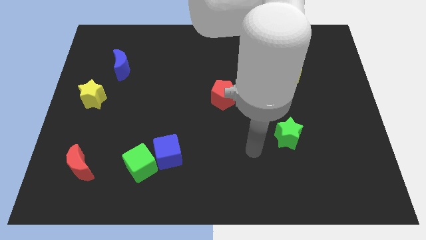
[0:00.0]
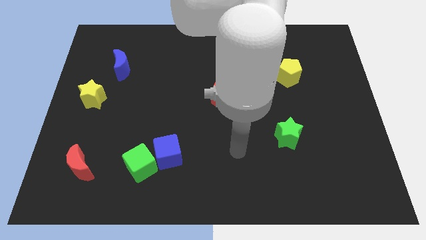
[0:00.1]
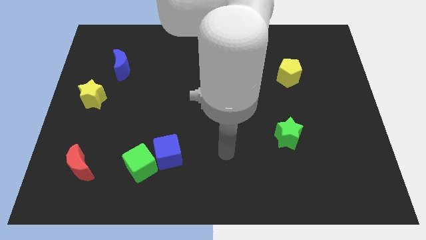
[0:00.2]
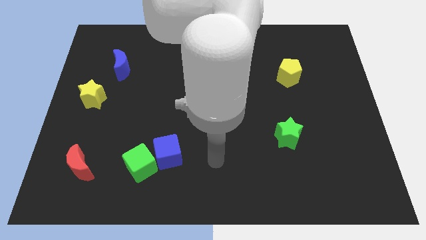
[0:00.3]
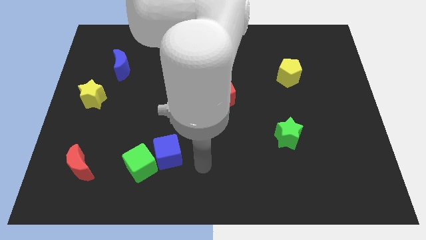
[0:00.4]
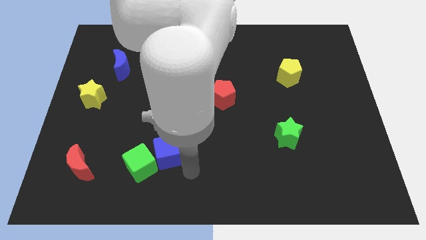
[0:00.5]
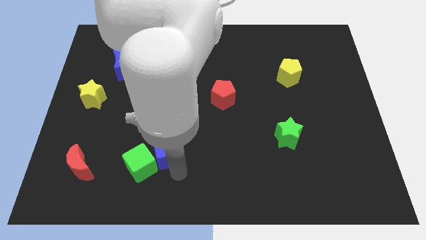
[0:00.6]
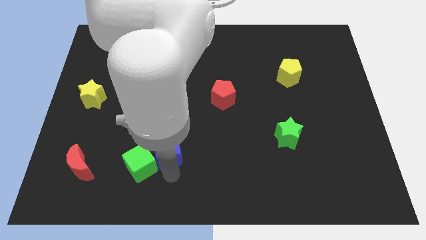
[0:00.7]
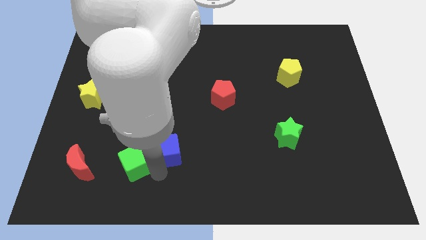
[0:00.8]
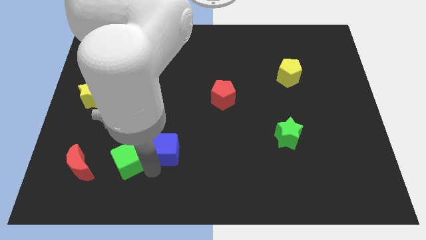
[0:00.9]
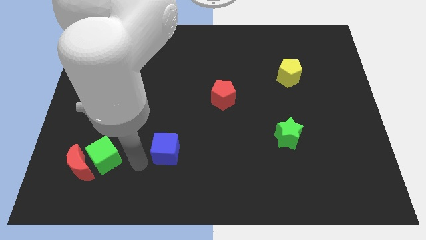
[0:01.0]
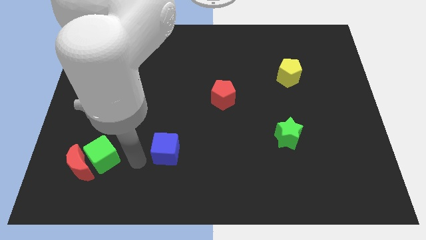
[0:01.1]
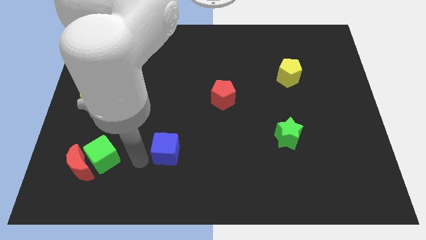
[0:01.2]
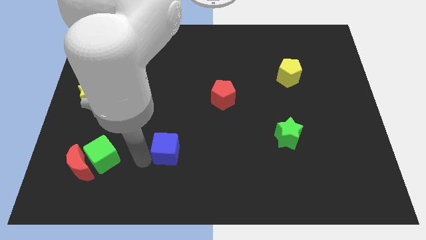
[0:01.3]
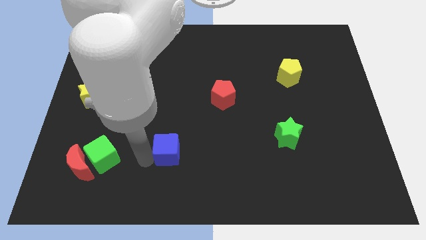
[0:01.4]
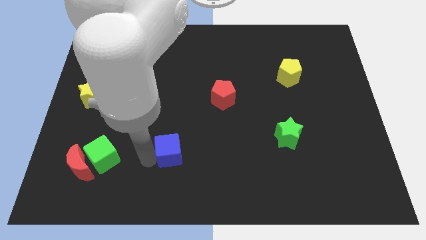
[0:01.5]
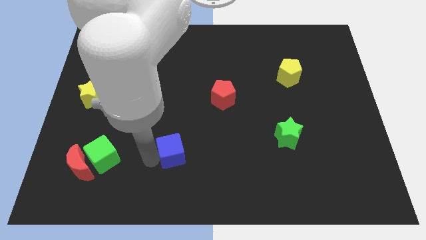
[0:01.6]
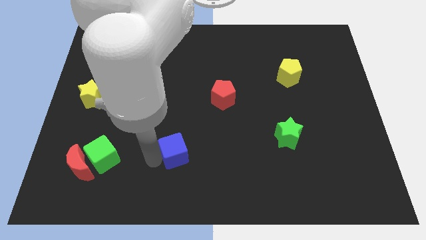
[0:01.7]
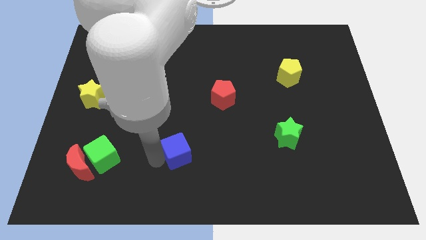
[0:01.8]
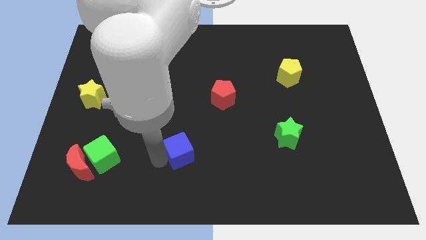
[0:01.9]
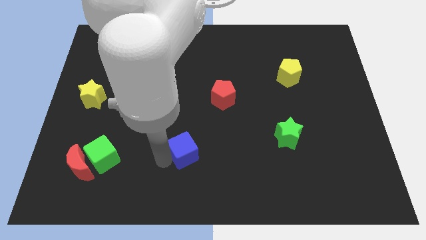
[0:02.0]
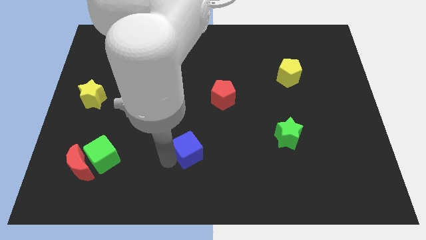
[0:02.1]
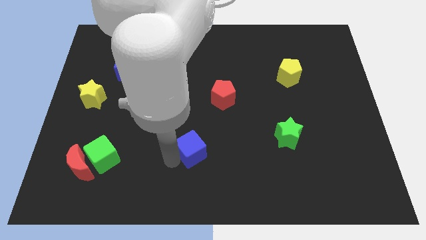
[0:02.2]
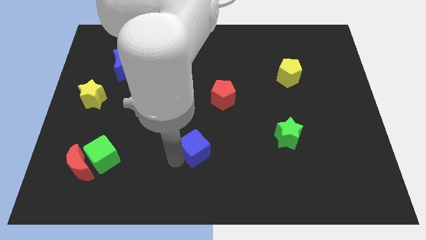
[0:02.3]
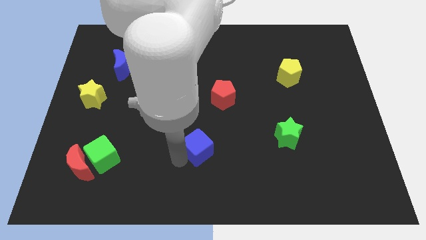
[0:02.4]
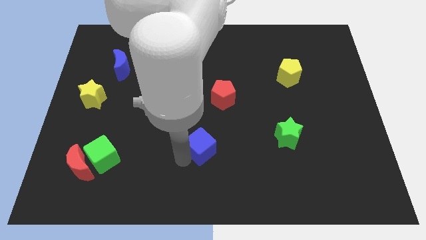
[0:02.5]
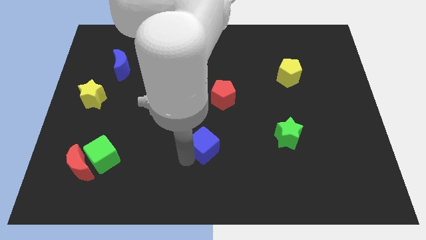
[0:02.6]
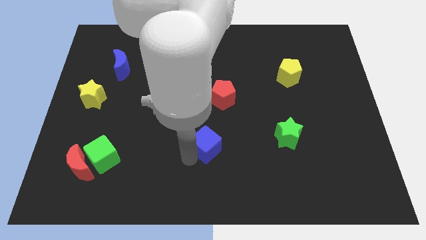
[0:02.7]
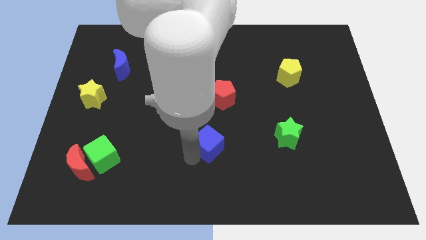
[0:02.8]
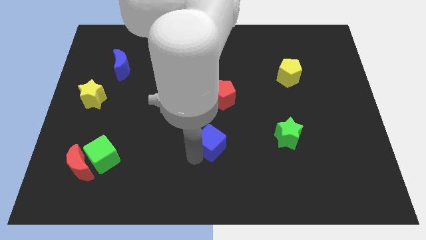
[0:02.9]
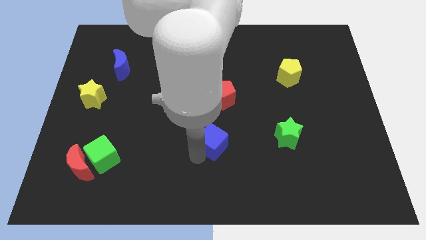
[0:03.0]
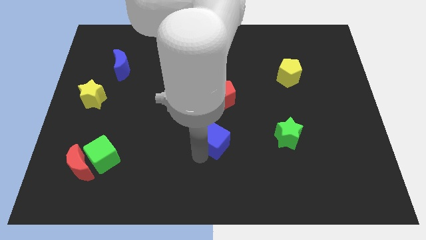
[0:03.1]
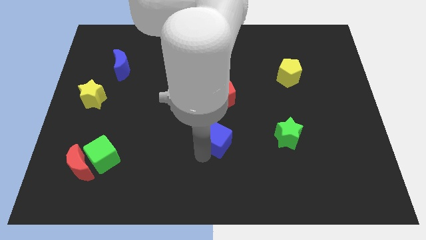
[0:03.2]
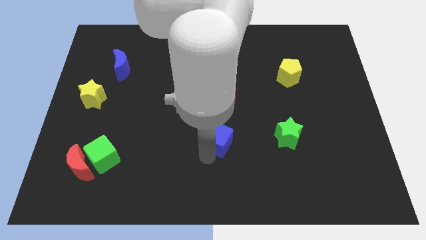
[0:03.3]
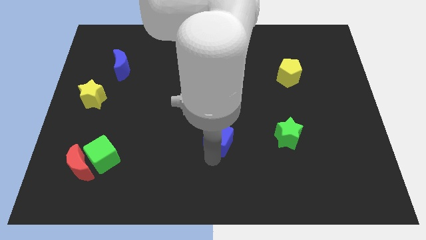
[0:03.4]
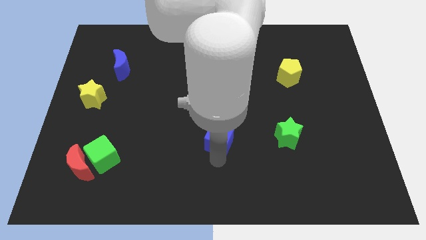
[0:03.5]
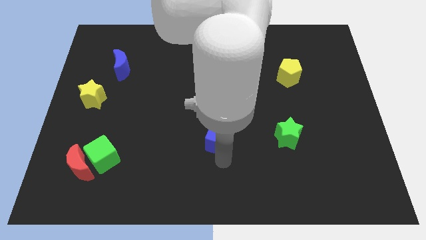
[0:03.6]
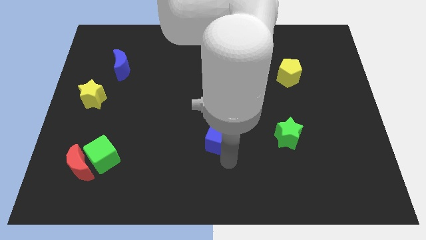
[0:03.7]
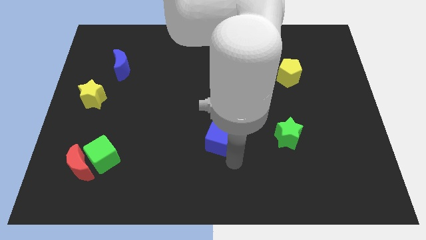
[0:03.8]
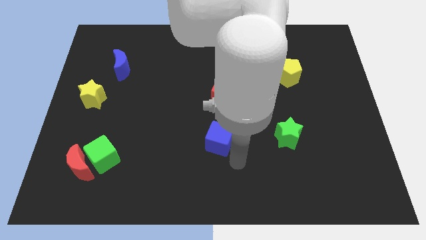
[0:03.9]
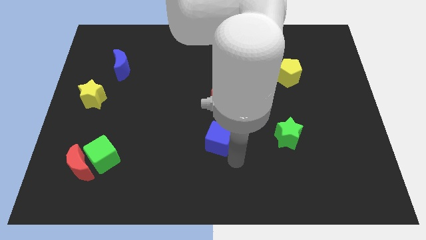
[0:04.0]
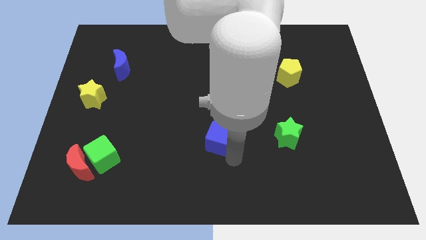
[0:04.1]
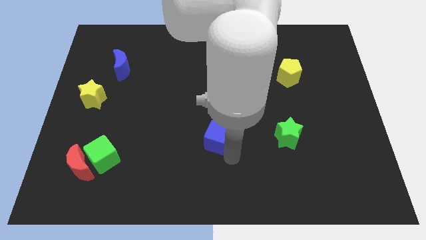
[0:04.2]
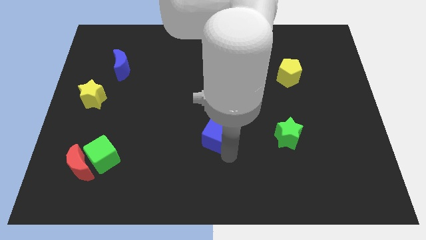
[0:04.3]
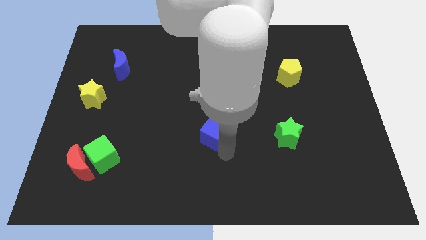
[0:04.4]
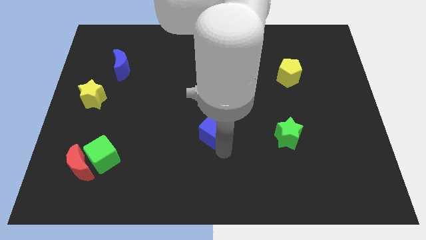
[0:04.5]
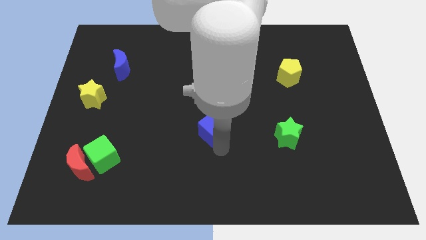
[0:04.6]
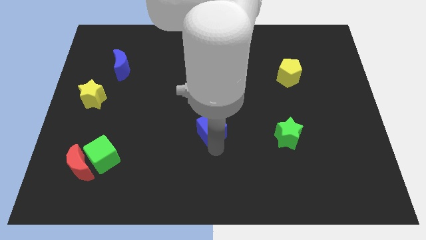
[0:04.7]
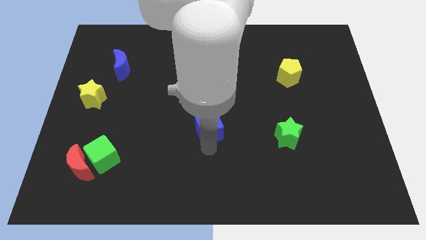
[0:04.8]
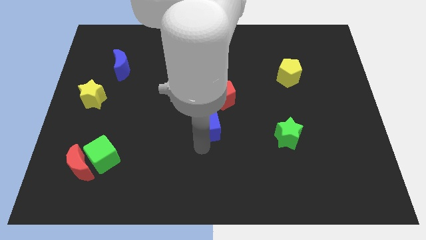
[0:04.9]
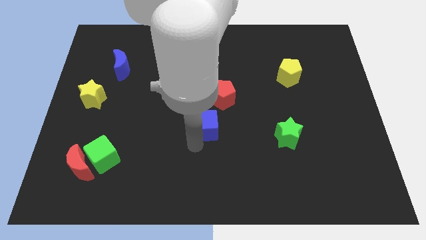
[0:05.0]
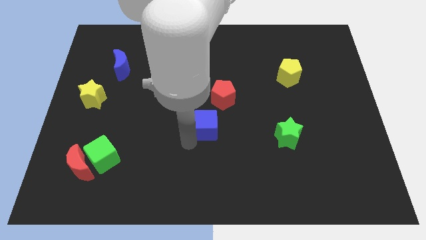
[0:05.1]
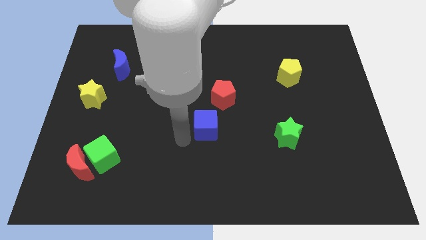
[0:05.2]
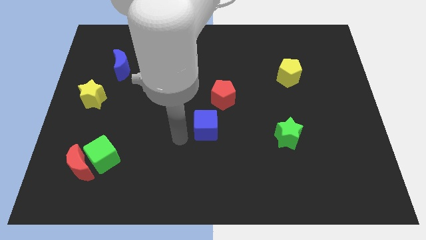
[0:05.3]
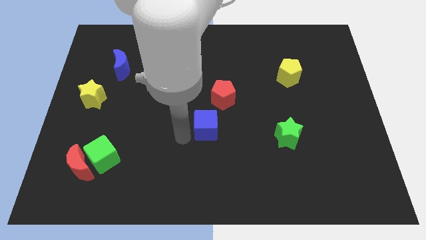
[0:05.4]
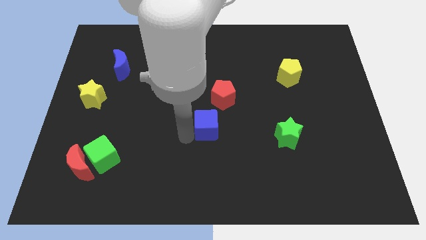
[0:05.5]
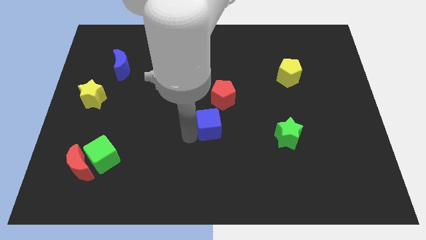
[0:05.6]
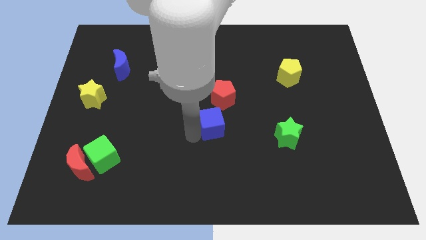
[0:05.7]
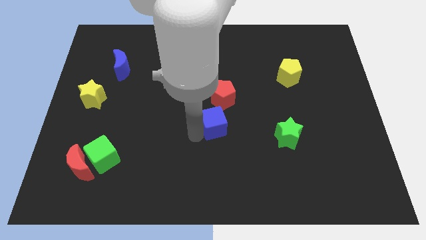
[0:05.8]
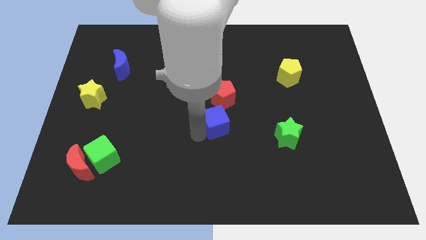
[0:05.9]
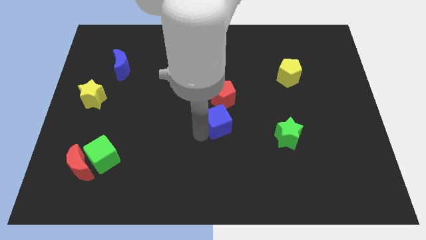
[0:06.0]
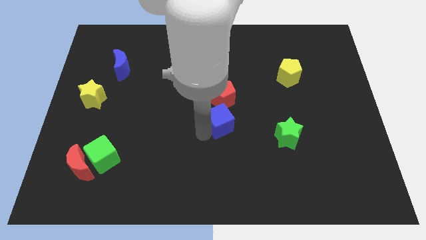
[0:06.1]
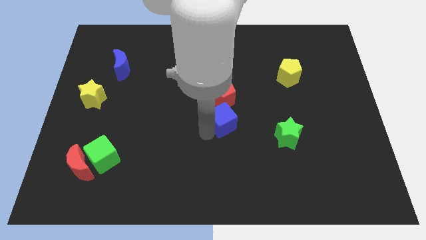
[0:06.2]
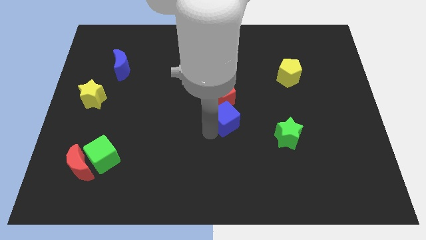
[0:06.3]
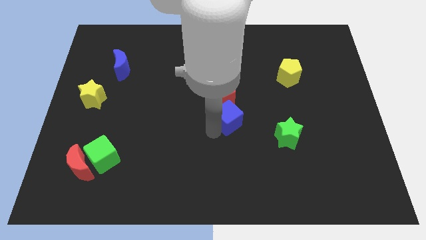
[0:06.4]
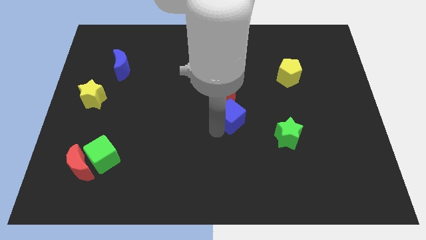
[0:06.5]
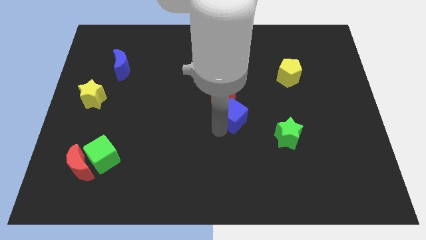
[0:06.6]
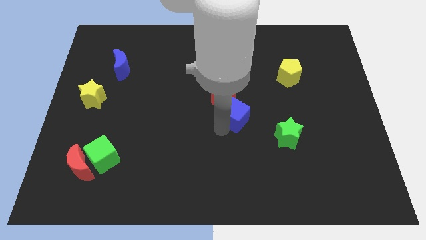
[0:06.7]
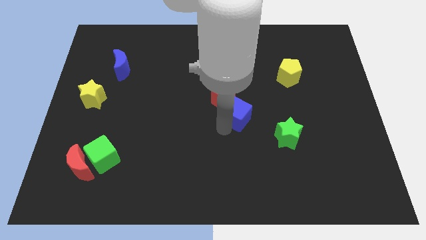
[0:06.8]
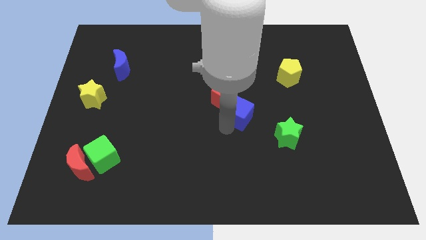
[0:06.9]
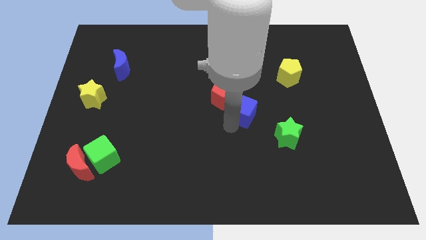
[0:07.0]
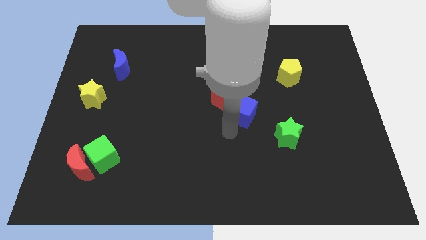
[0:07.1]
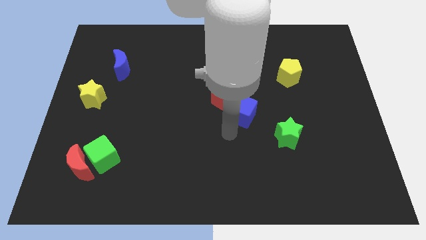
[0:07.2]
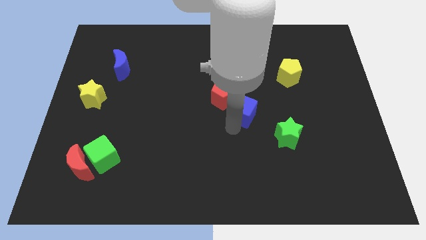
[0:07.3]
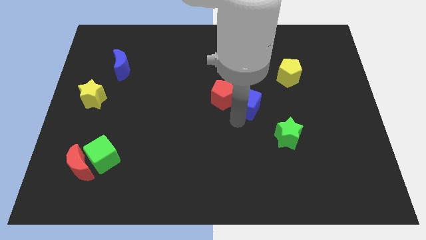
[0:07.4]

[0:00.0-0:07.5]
push the blue cube upwards and then right

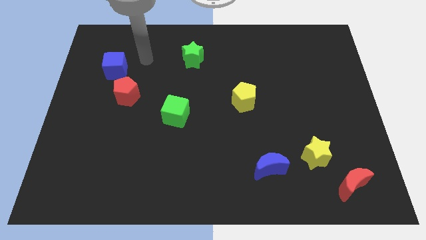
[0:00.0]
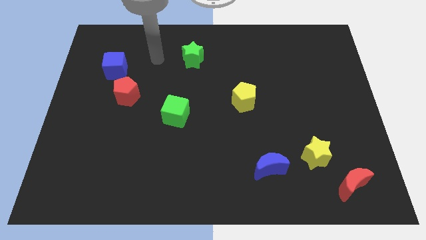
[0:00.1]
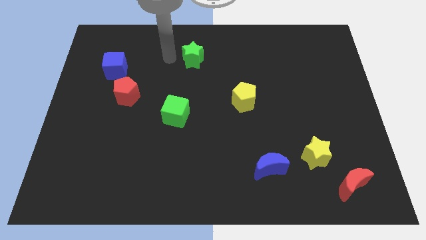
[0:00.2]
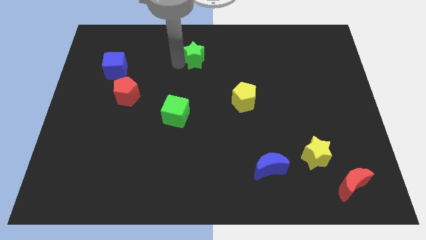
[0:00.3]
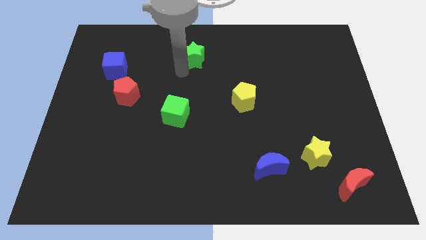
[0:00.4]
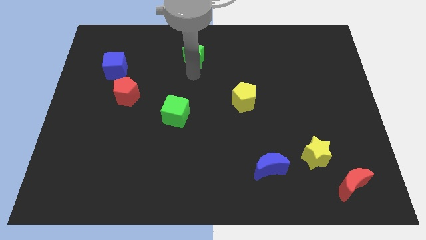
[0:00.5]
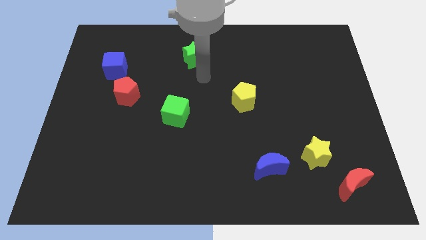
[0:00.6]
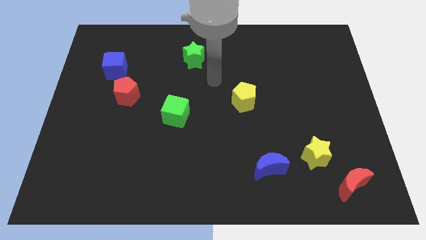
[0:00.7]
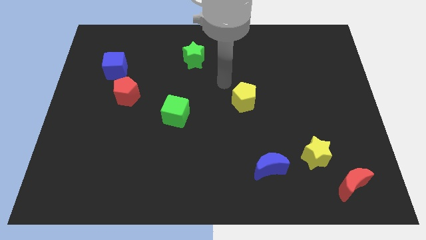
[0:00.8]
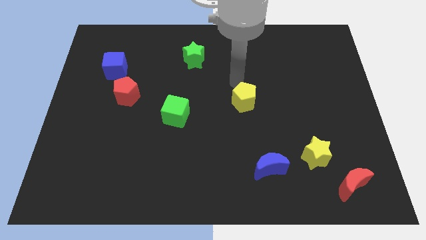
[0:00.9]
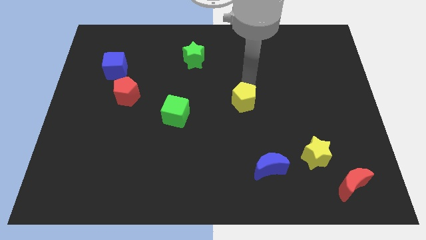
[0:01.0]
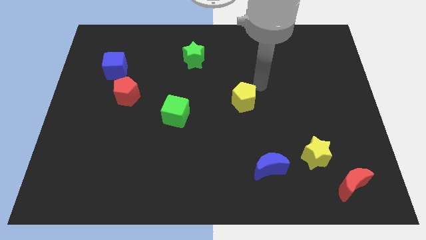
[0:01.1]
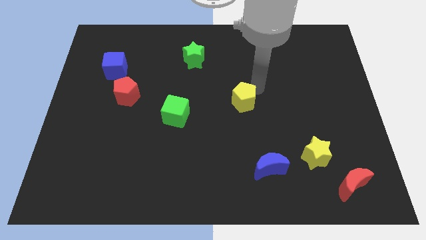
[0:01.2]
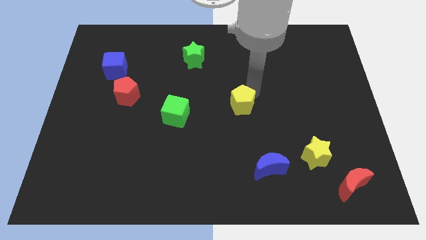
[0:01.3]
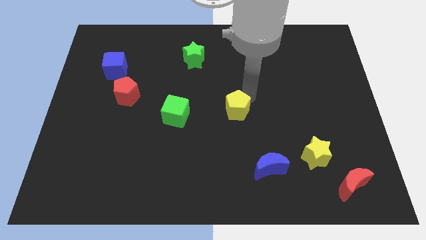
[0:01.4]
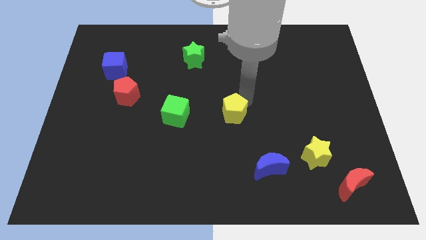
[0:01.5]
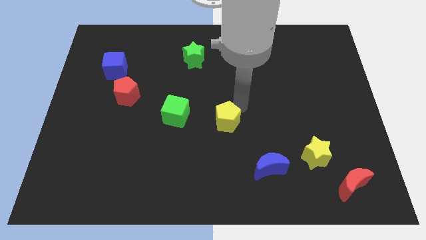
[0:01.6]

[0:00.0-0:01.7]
push the yellow pentagon down and then left a little
